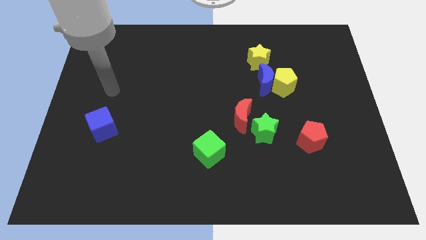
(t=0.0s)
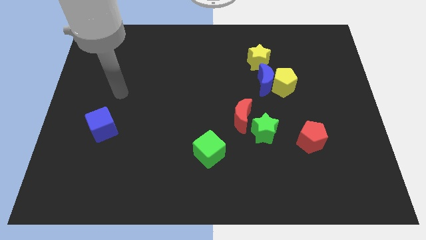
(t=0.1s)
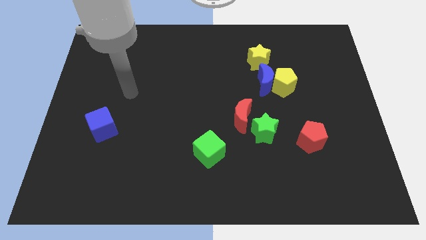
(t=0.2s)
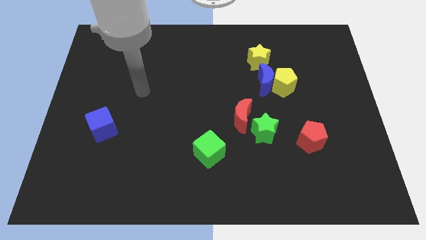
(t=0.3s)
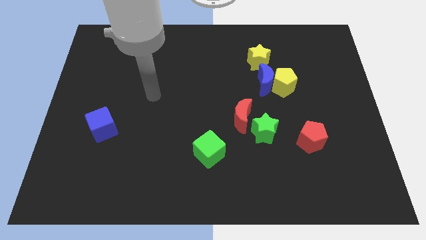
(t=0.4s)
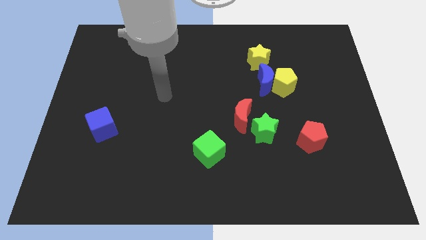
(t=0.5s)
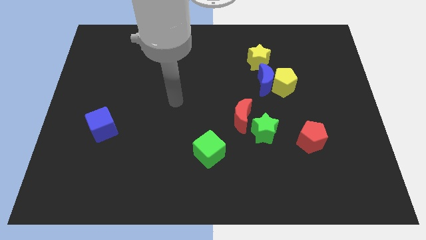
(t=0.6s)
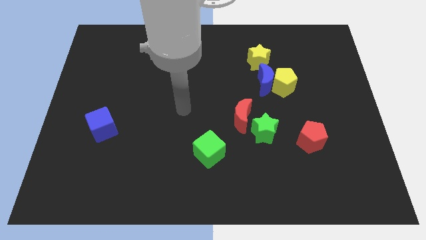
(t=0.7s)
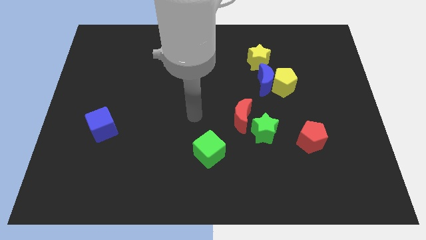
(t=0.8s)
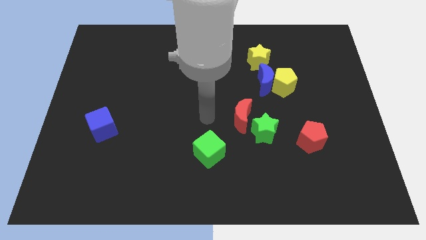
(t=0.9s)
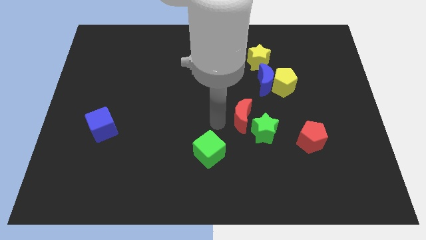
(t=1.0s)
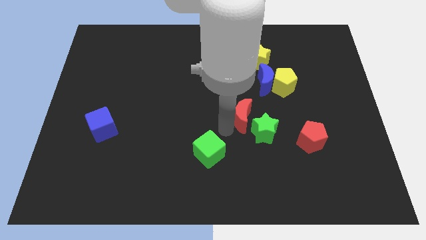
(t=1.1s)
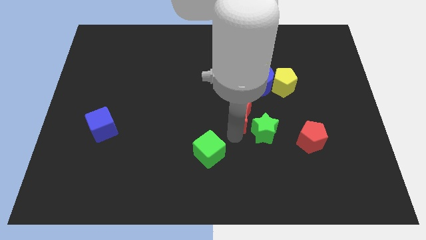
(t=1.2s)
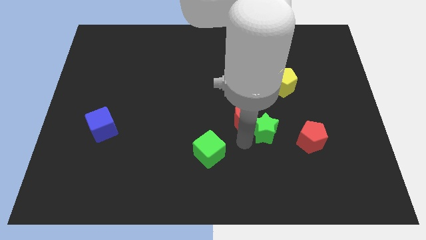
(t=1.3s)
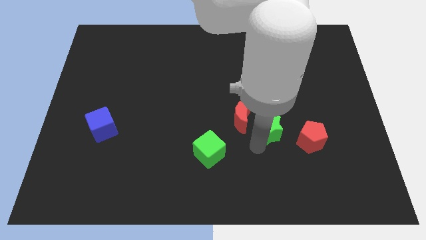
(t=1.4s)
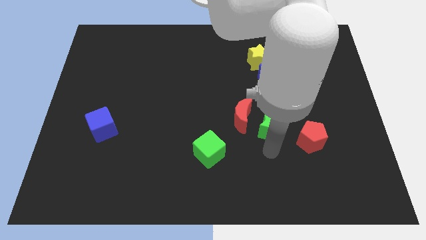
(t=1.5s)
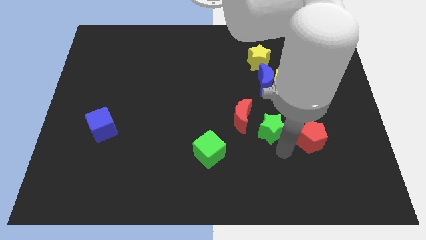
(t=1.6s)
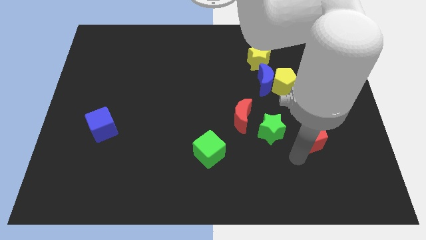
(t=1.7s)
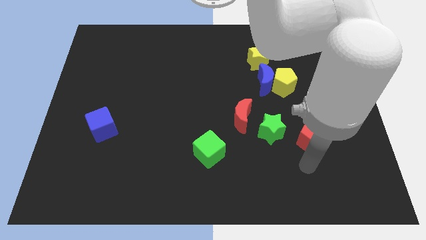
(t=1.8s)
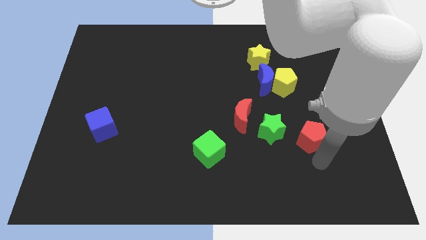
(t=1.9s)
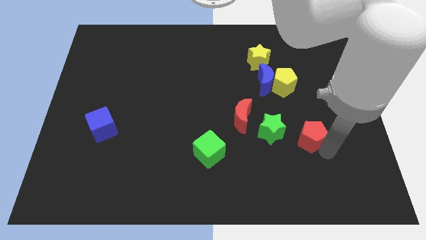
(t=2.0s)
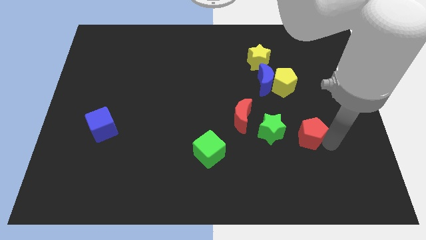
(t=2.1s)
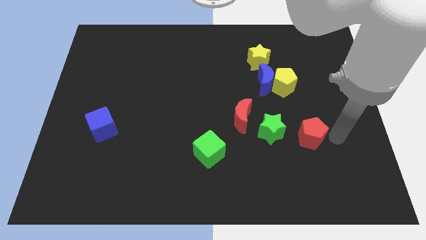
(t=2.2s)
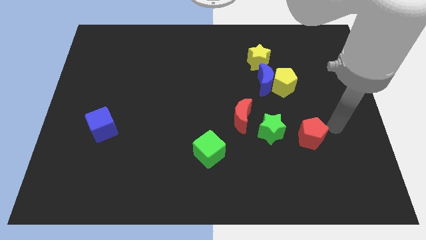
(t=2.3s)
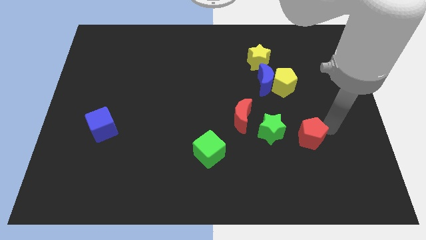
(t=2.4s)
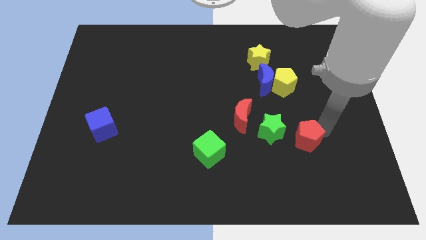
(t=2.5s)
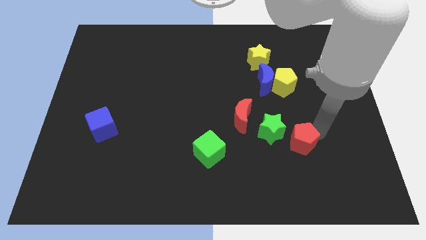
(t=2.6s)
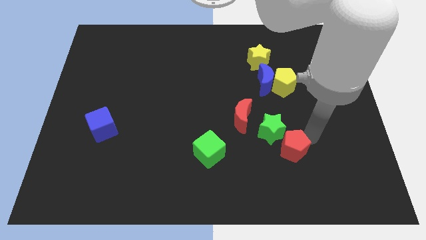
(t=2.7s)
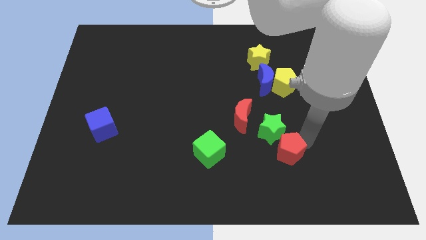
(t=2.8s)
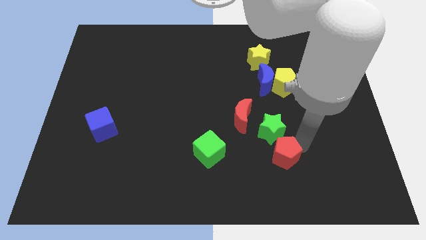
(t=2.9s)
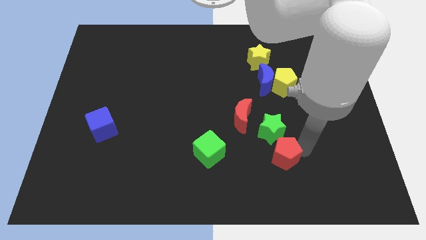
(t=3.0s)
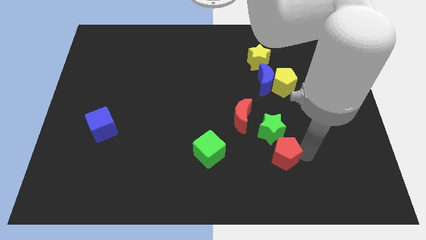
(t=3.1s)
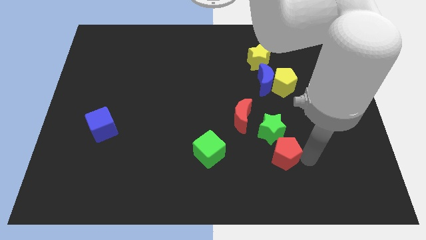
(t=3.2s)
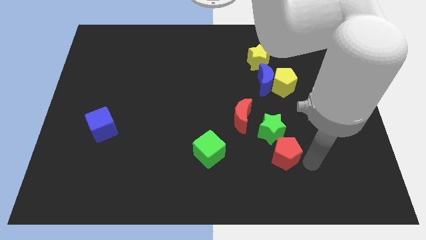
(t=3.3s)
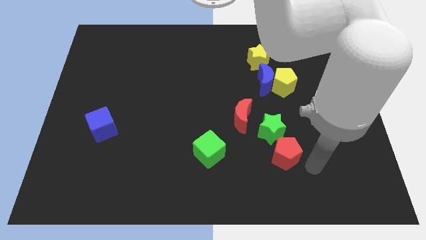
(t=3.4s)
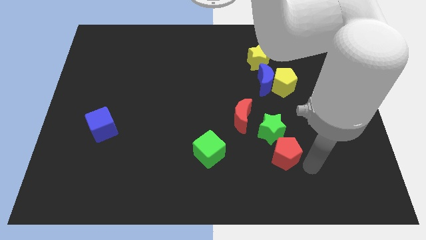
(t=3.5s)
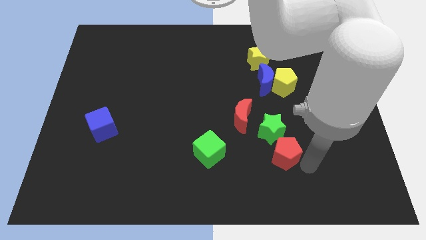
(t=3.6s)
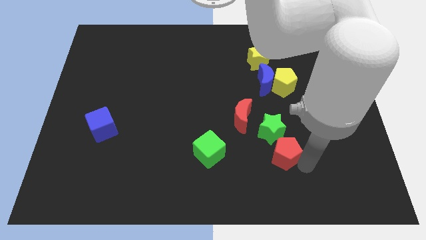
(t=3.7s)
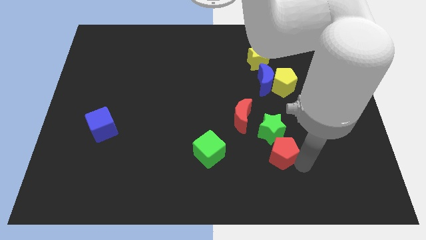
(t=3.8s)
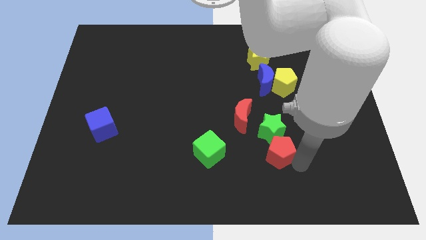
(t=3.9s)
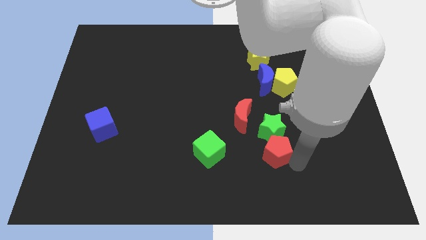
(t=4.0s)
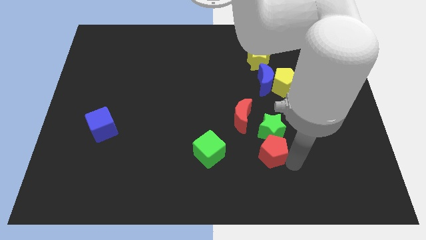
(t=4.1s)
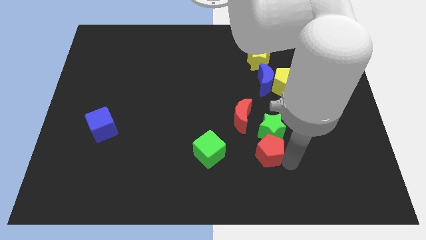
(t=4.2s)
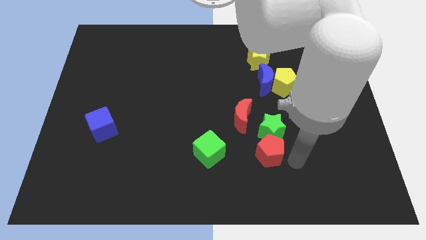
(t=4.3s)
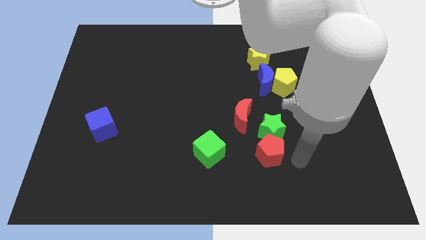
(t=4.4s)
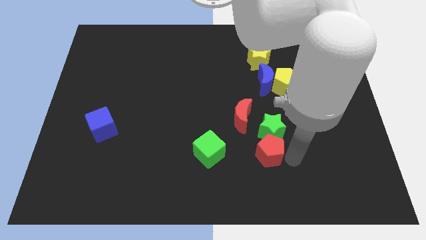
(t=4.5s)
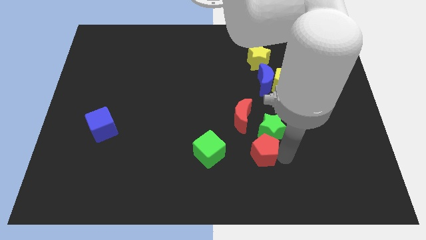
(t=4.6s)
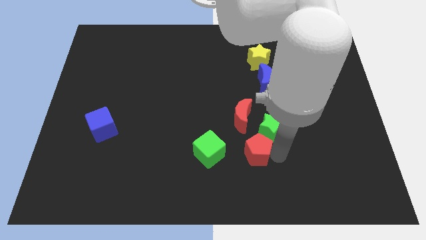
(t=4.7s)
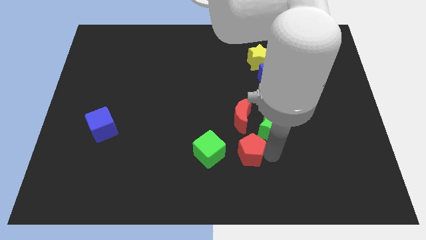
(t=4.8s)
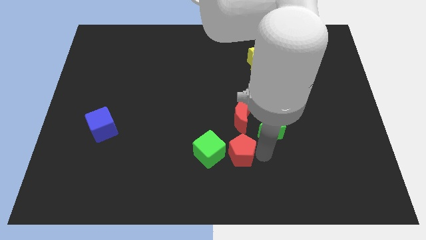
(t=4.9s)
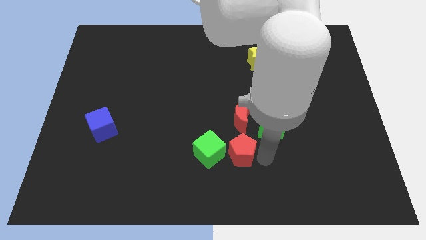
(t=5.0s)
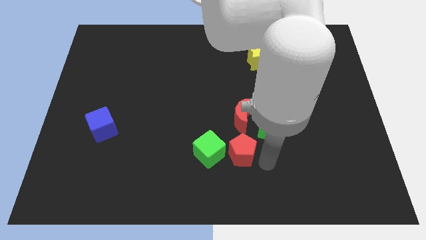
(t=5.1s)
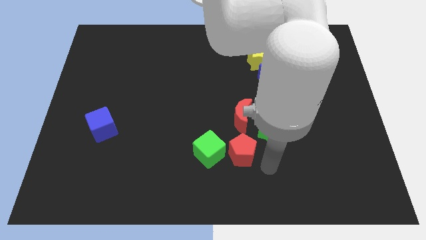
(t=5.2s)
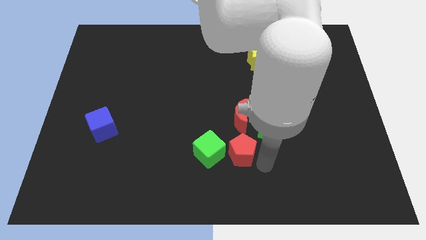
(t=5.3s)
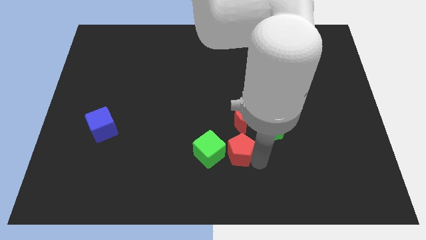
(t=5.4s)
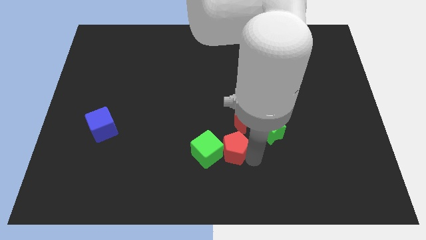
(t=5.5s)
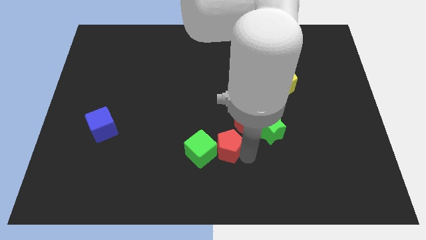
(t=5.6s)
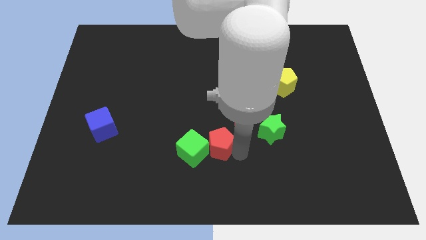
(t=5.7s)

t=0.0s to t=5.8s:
slide the red pentagon to the left

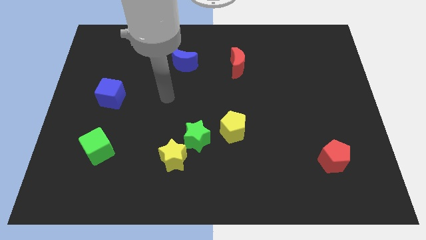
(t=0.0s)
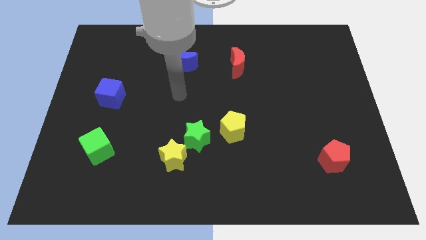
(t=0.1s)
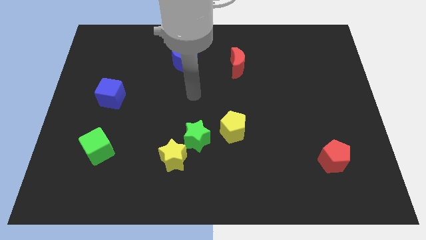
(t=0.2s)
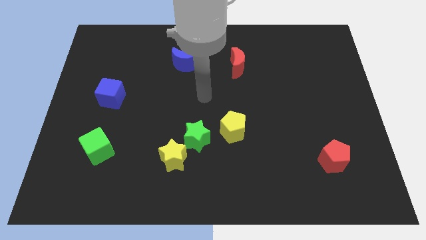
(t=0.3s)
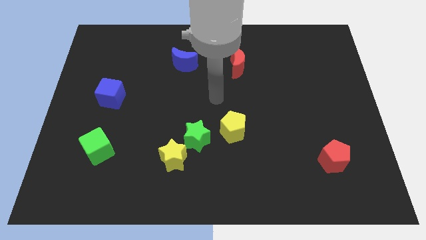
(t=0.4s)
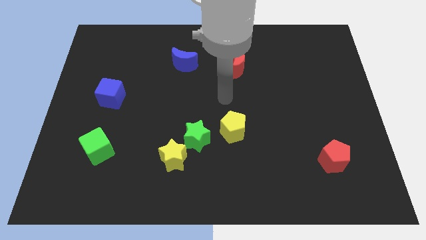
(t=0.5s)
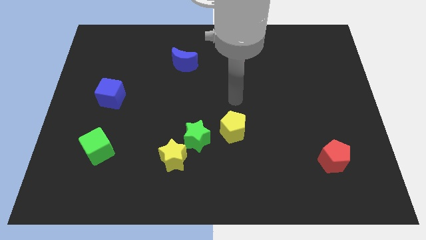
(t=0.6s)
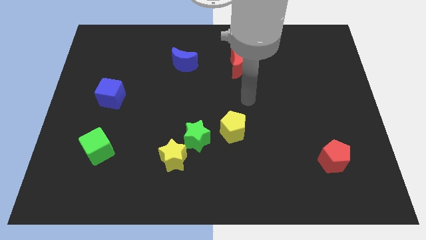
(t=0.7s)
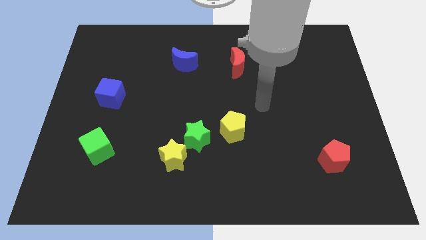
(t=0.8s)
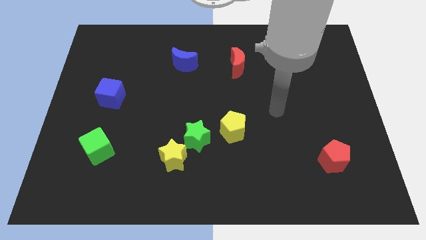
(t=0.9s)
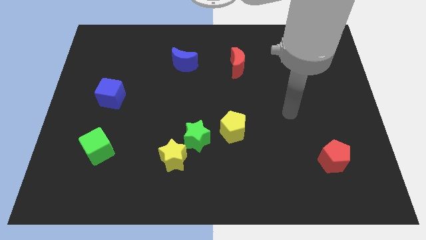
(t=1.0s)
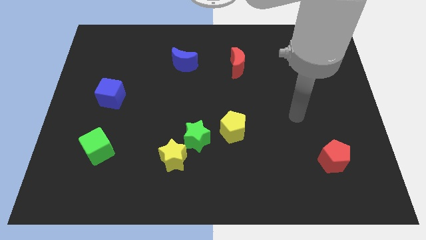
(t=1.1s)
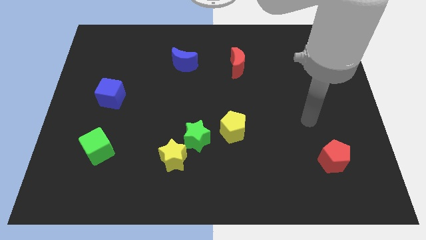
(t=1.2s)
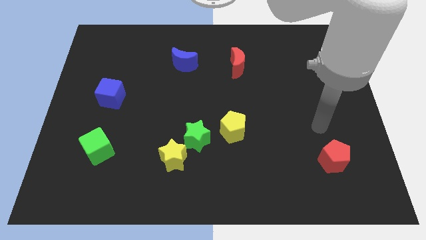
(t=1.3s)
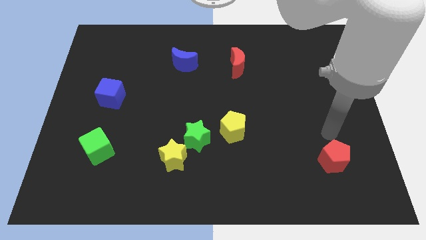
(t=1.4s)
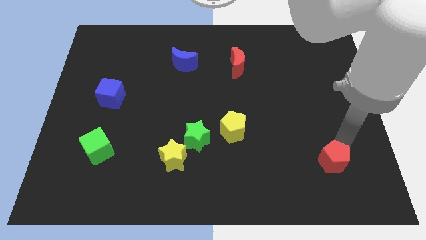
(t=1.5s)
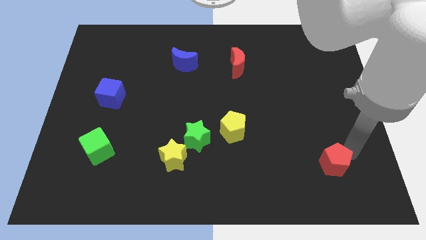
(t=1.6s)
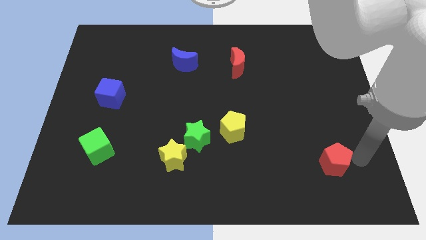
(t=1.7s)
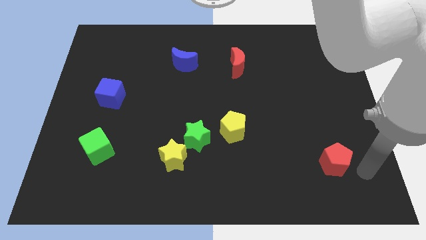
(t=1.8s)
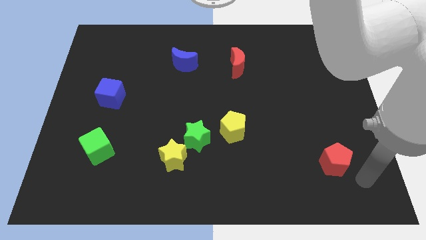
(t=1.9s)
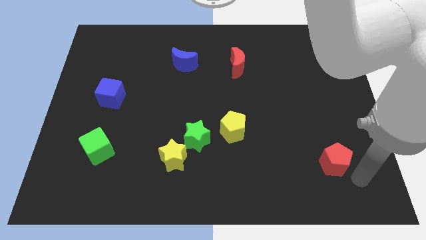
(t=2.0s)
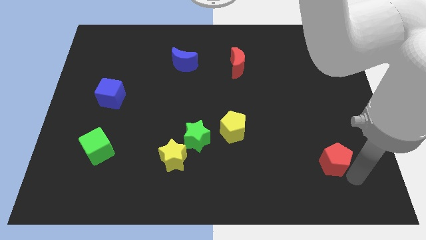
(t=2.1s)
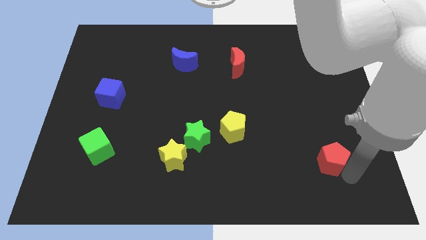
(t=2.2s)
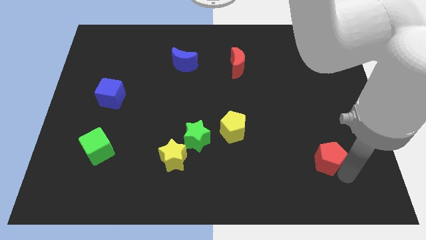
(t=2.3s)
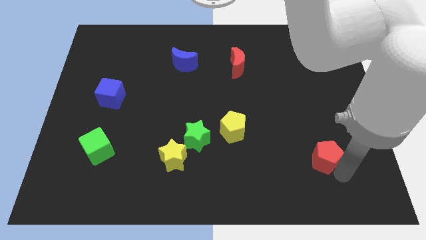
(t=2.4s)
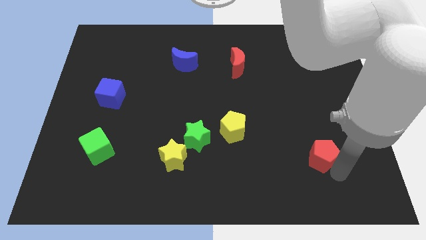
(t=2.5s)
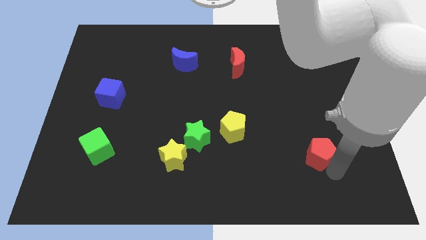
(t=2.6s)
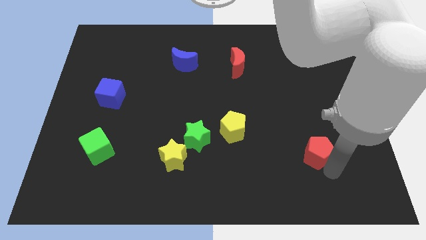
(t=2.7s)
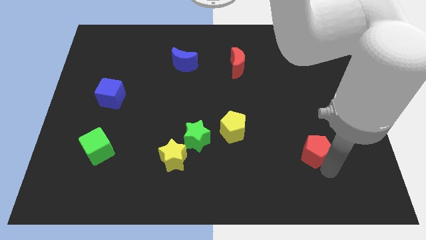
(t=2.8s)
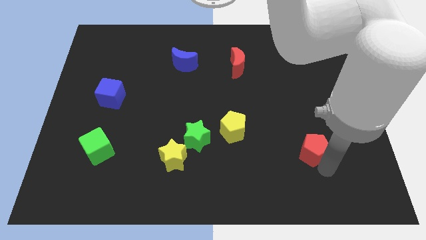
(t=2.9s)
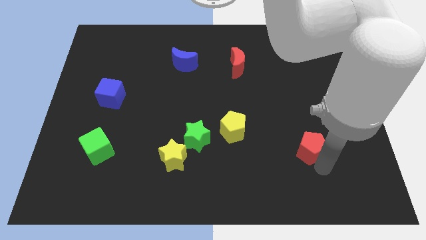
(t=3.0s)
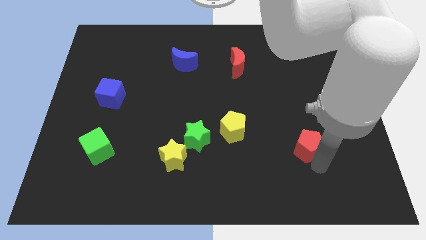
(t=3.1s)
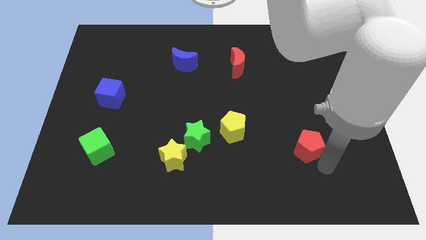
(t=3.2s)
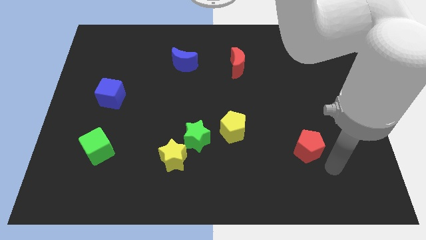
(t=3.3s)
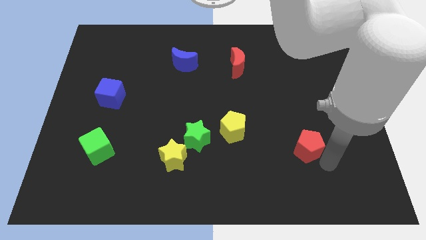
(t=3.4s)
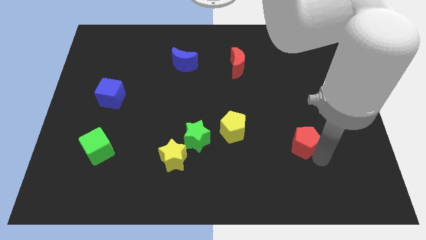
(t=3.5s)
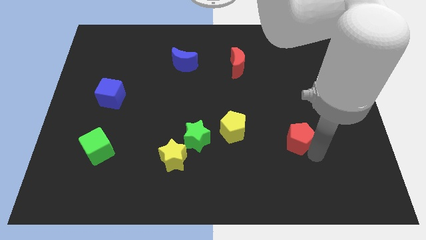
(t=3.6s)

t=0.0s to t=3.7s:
slightly push the red pentagon up and left
